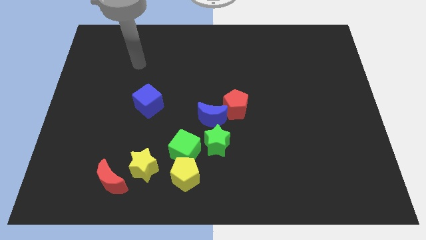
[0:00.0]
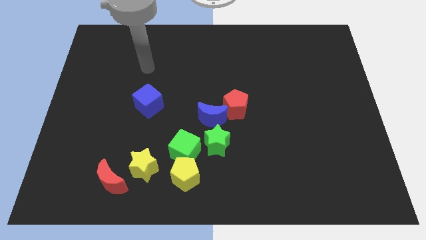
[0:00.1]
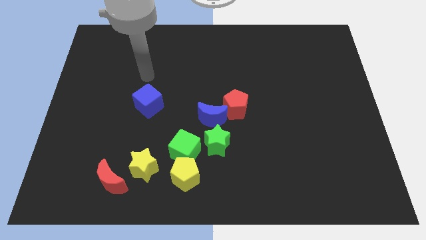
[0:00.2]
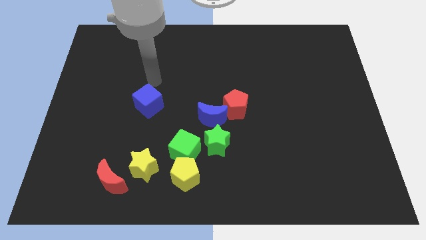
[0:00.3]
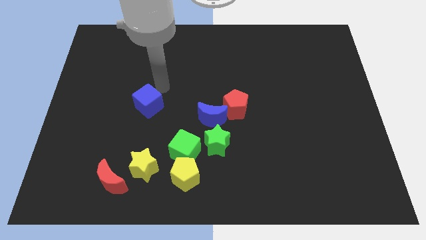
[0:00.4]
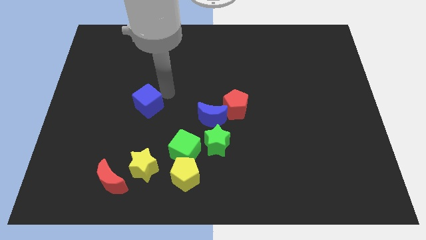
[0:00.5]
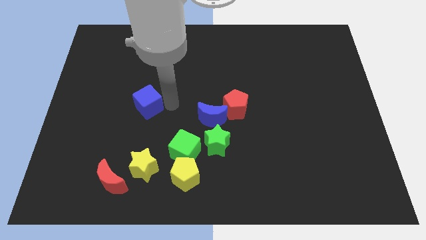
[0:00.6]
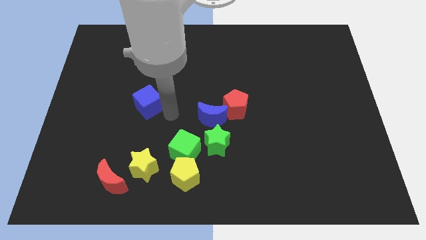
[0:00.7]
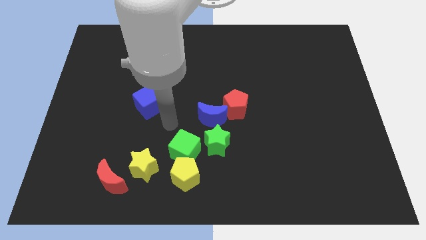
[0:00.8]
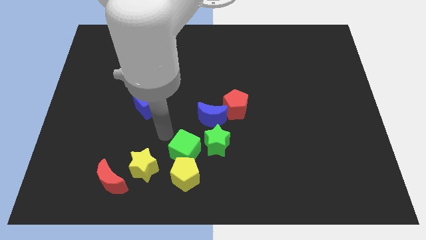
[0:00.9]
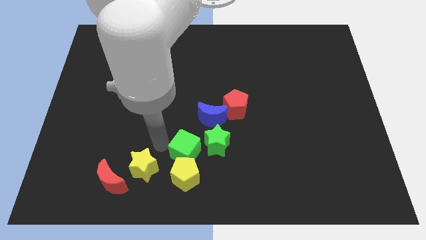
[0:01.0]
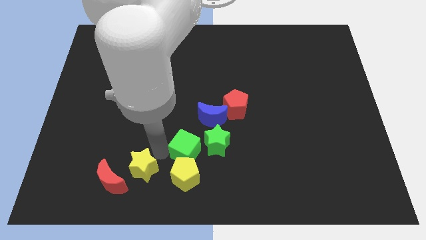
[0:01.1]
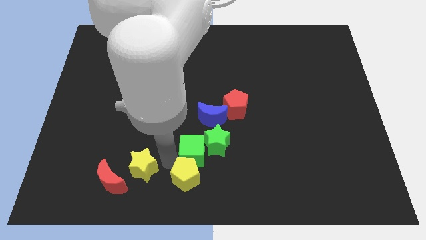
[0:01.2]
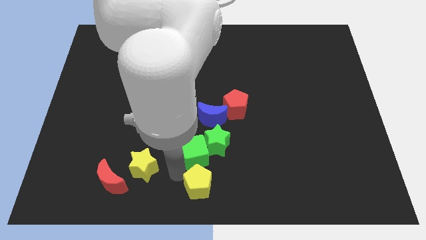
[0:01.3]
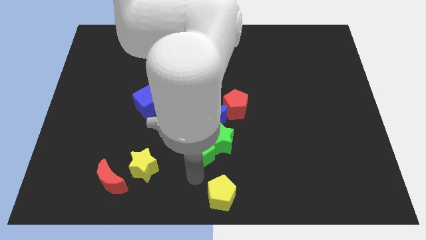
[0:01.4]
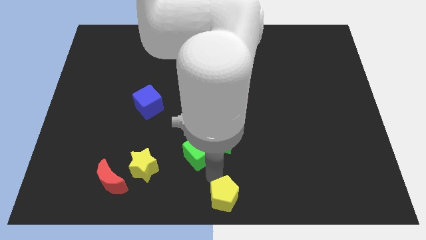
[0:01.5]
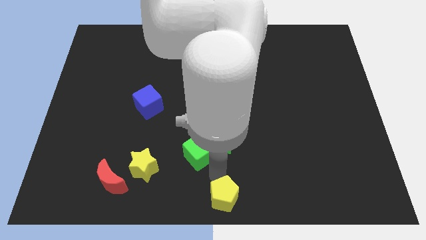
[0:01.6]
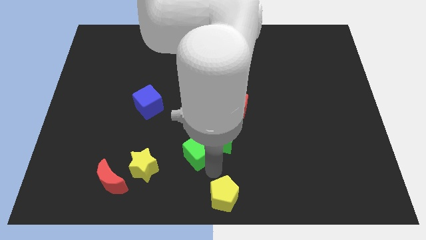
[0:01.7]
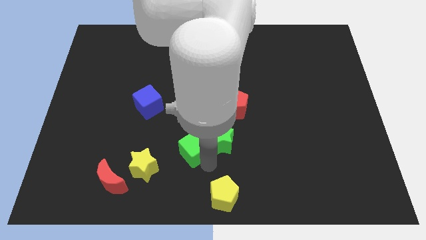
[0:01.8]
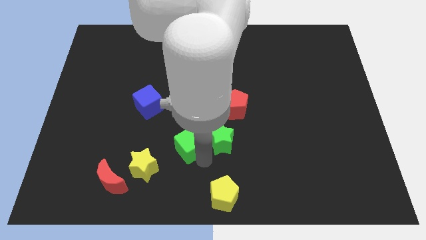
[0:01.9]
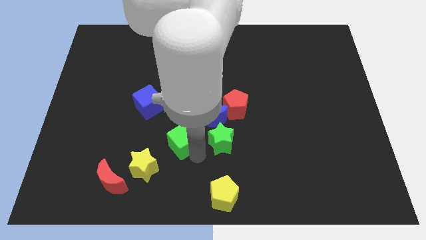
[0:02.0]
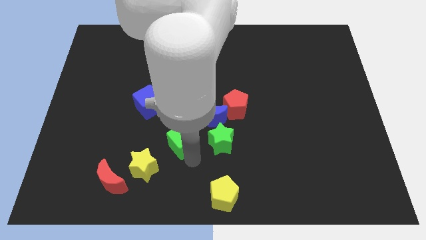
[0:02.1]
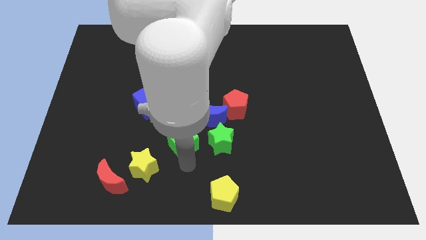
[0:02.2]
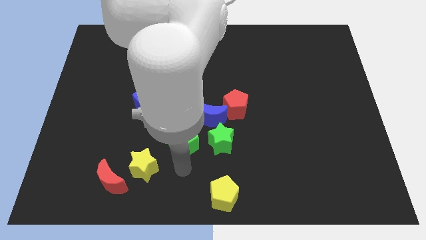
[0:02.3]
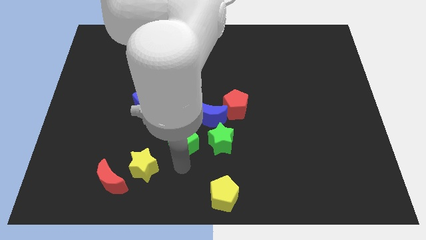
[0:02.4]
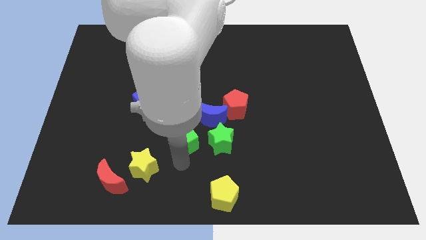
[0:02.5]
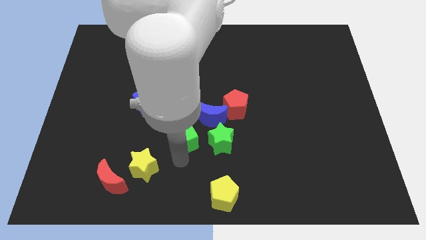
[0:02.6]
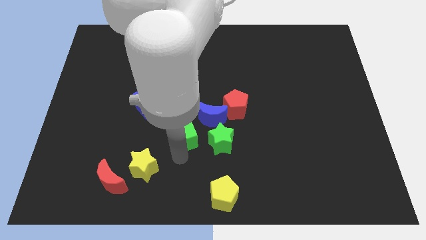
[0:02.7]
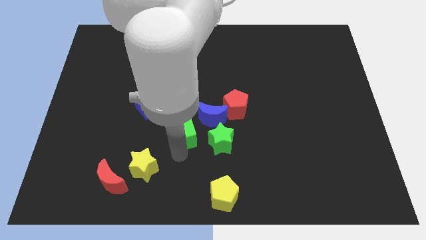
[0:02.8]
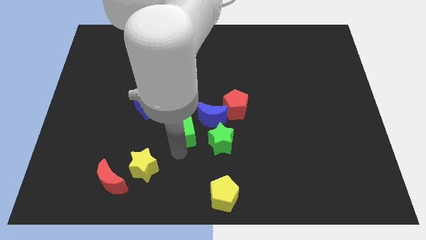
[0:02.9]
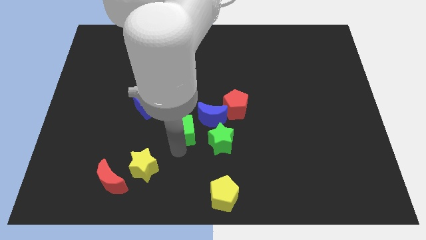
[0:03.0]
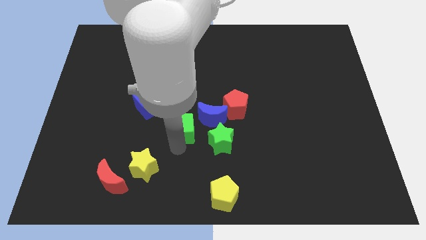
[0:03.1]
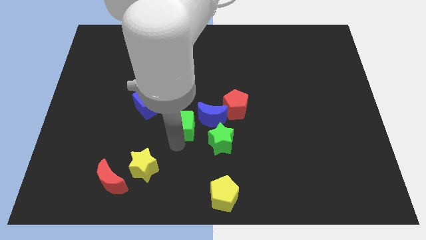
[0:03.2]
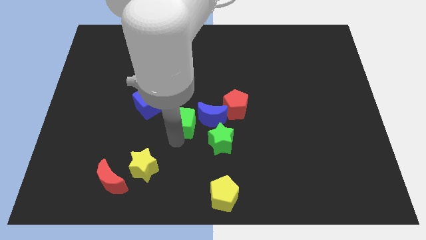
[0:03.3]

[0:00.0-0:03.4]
slightly push the green cube upwards

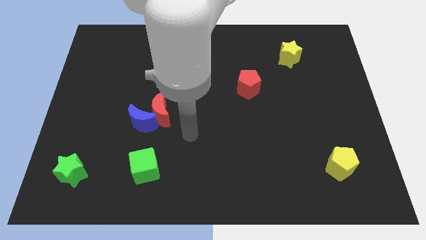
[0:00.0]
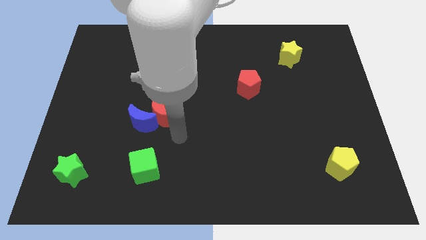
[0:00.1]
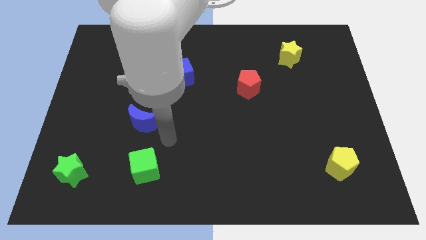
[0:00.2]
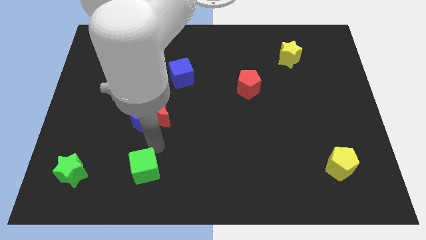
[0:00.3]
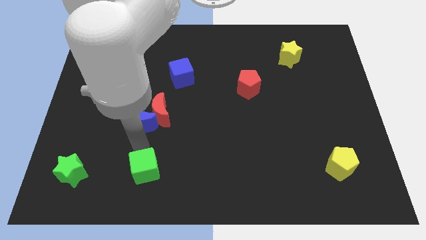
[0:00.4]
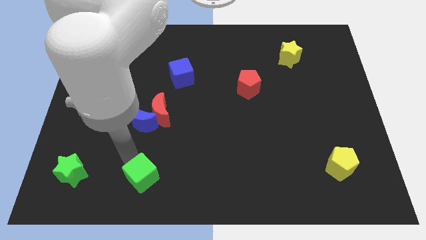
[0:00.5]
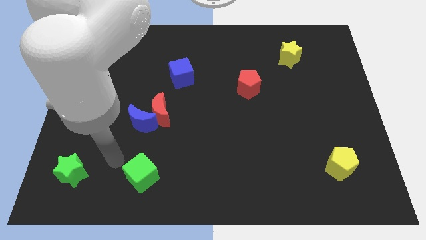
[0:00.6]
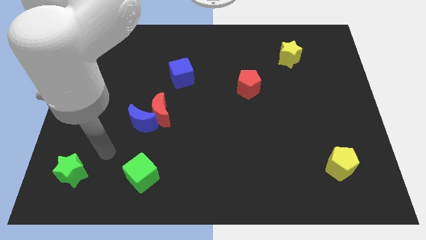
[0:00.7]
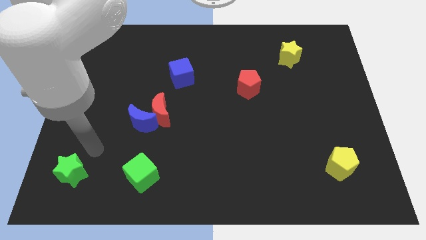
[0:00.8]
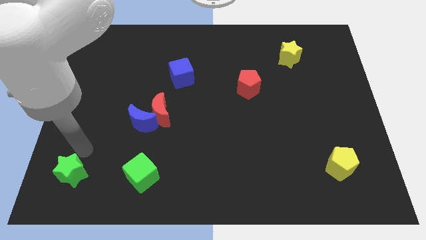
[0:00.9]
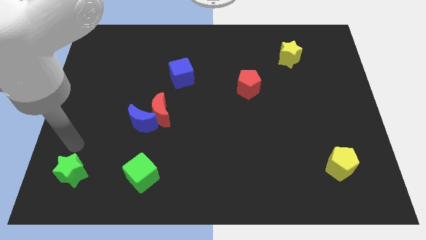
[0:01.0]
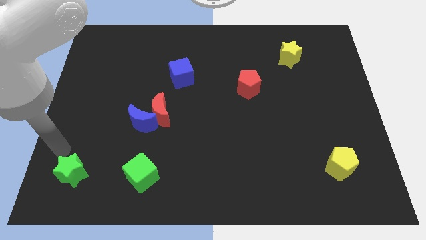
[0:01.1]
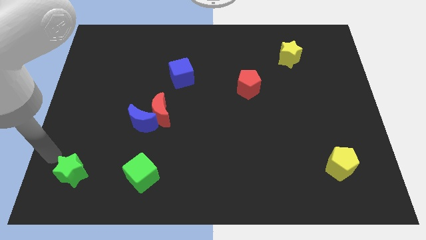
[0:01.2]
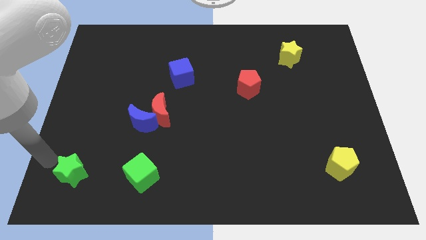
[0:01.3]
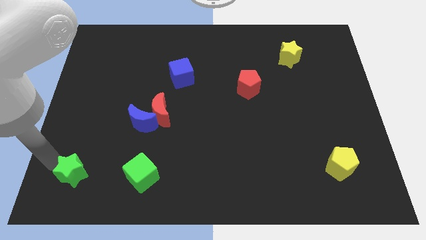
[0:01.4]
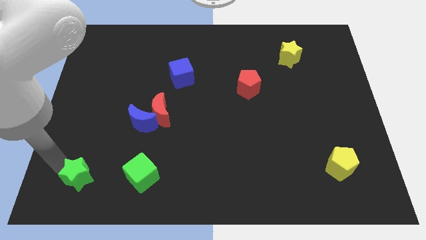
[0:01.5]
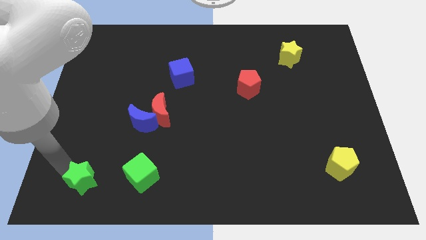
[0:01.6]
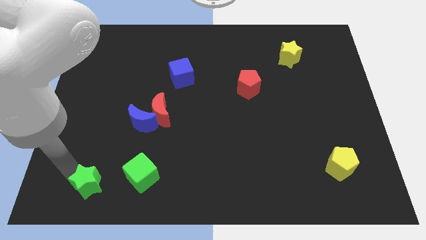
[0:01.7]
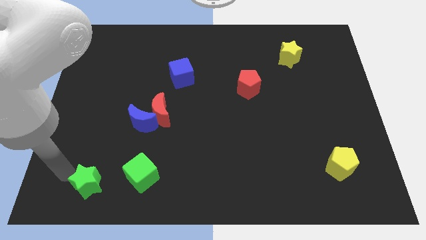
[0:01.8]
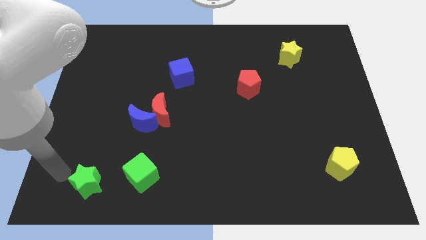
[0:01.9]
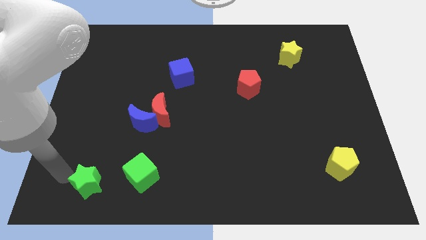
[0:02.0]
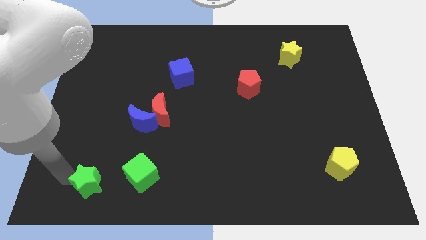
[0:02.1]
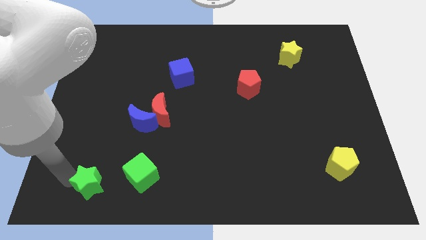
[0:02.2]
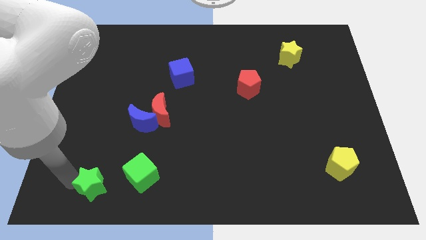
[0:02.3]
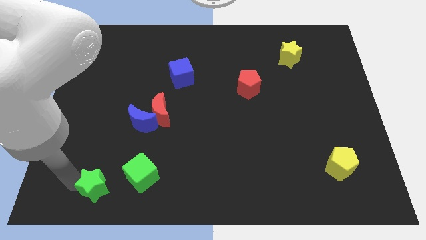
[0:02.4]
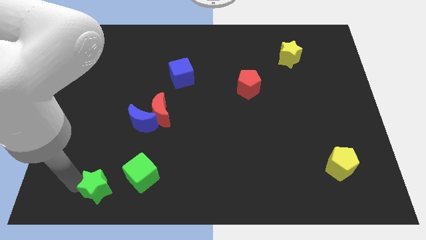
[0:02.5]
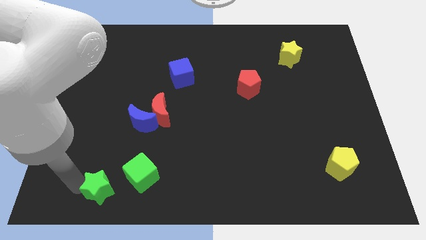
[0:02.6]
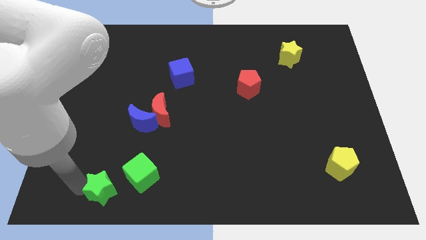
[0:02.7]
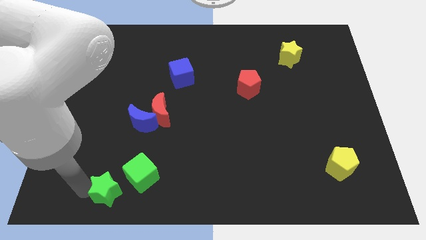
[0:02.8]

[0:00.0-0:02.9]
slightly slide the green star right

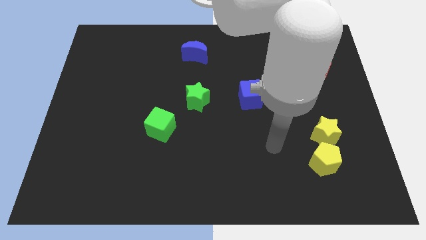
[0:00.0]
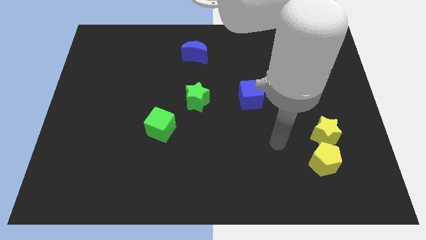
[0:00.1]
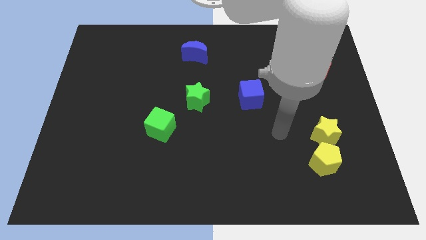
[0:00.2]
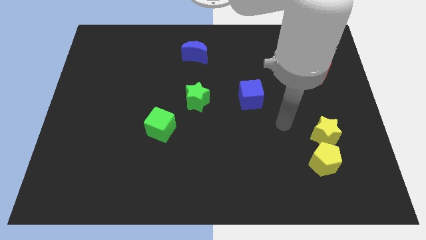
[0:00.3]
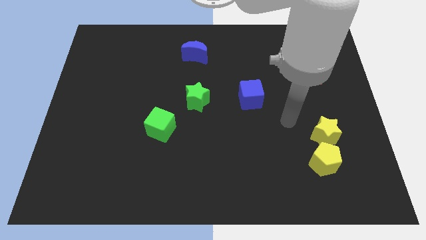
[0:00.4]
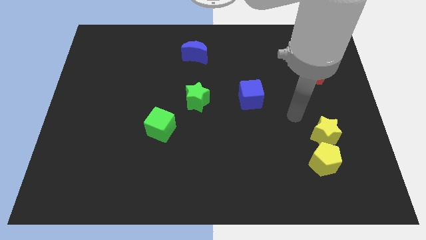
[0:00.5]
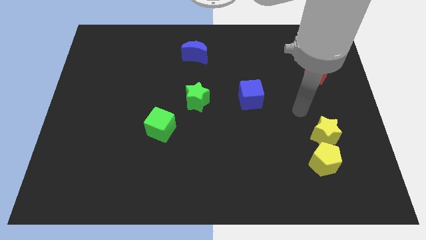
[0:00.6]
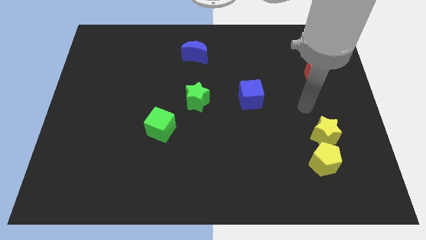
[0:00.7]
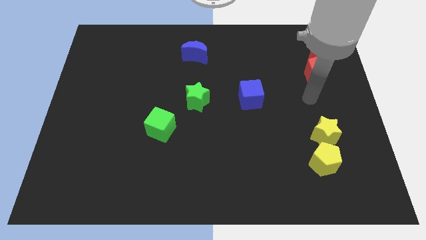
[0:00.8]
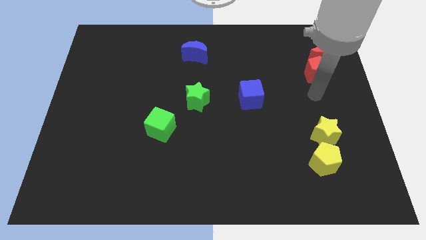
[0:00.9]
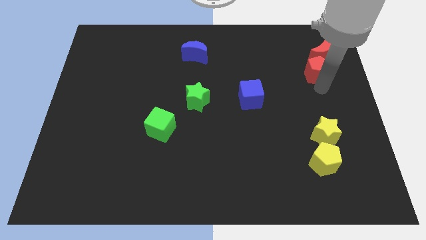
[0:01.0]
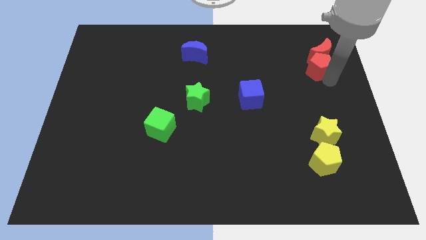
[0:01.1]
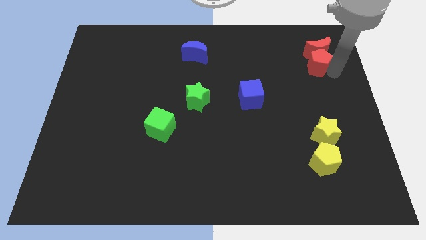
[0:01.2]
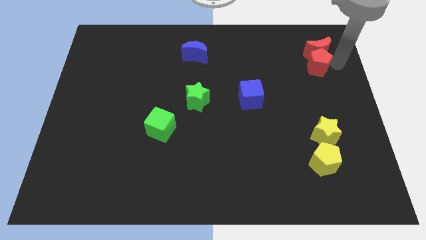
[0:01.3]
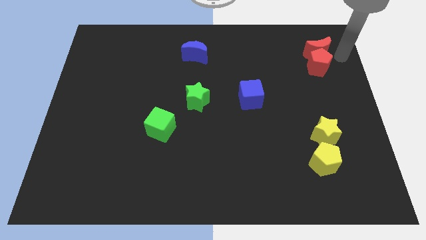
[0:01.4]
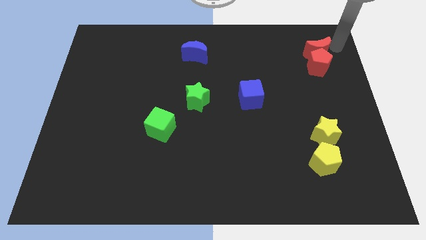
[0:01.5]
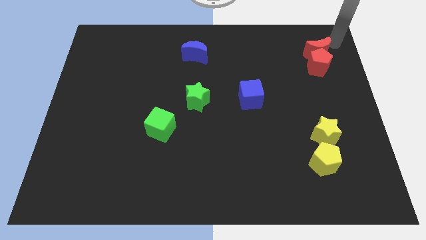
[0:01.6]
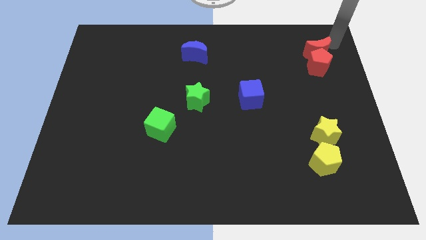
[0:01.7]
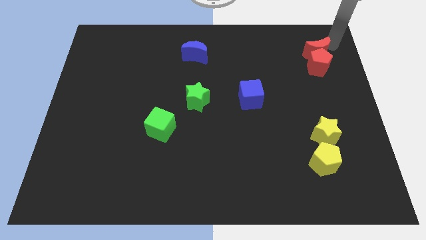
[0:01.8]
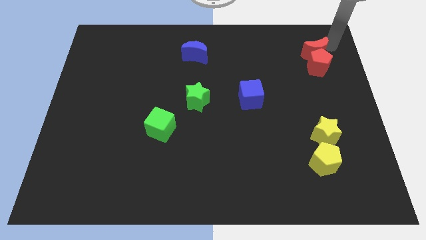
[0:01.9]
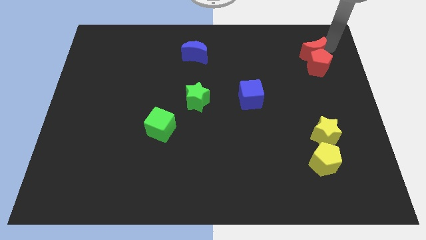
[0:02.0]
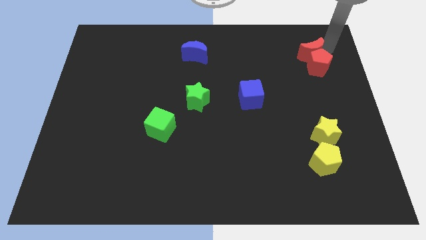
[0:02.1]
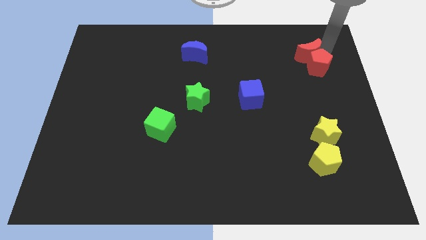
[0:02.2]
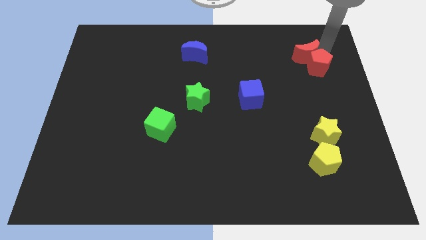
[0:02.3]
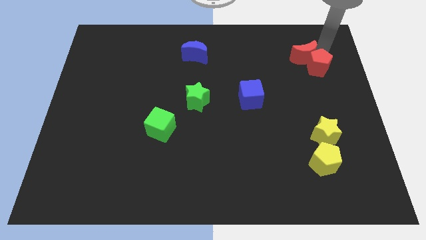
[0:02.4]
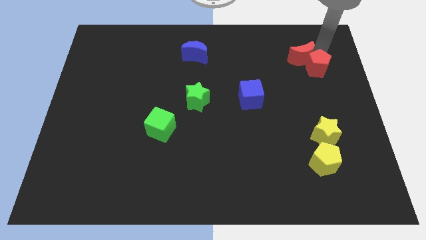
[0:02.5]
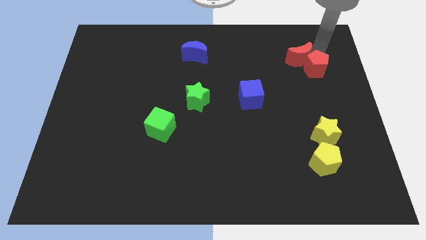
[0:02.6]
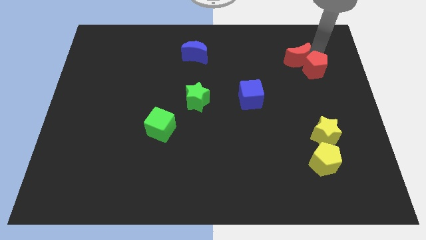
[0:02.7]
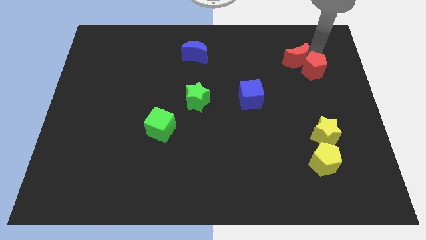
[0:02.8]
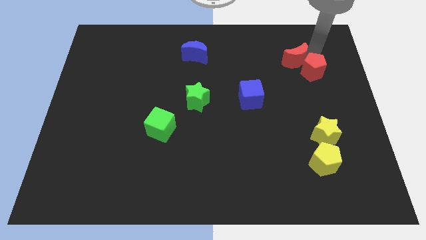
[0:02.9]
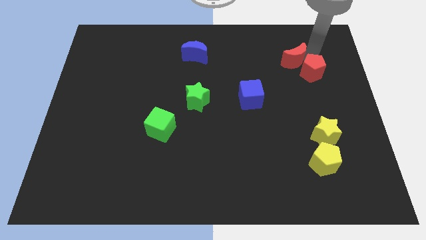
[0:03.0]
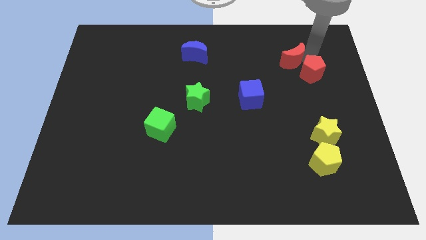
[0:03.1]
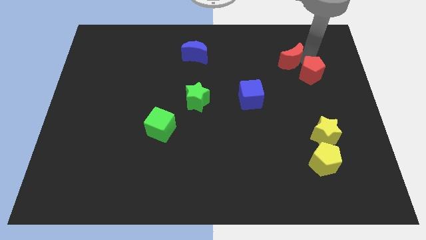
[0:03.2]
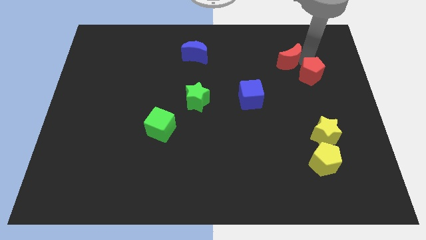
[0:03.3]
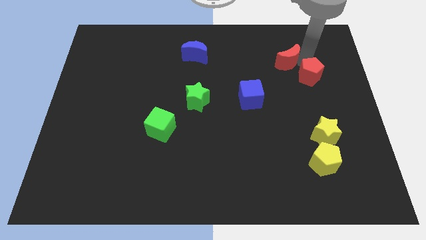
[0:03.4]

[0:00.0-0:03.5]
move the red moon a little bit down and then to the left
